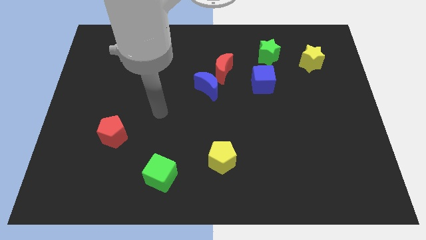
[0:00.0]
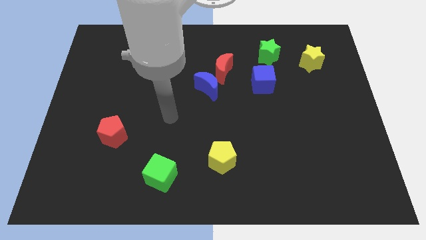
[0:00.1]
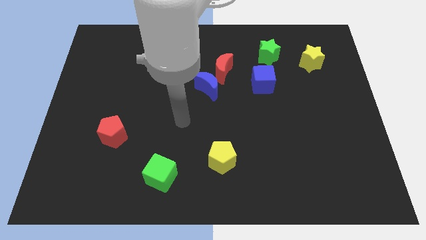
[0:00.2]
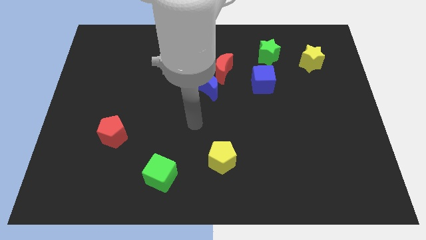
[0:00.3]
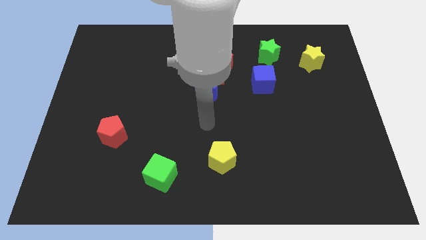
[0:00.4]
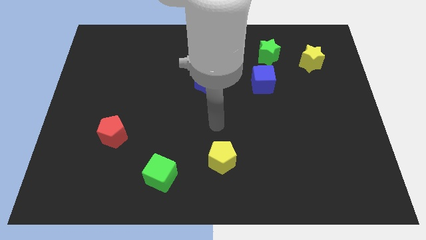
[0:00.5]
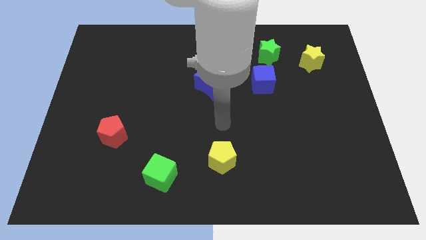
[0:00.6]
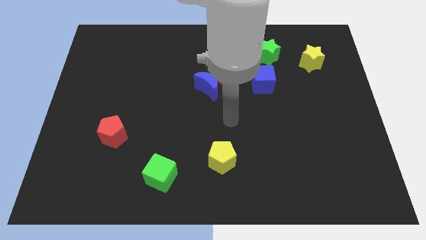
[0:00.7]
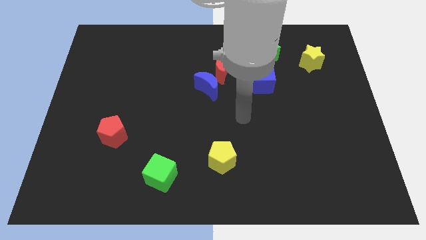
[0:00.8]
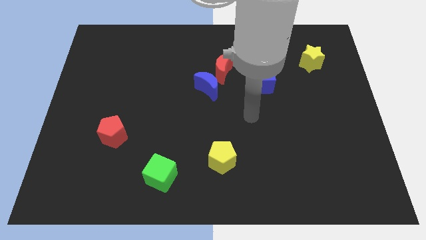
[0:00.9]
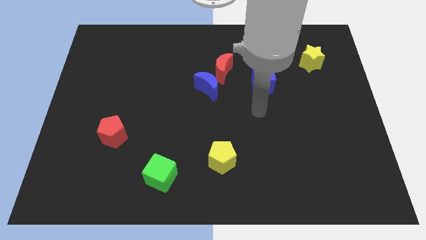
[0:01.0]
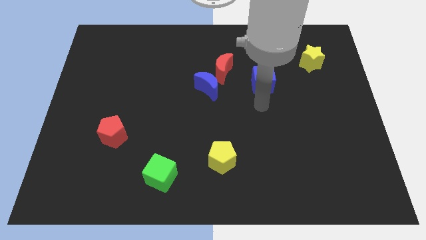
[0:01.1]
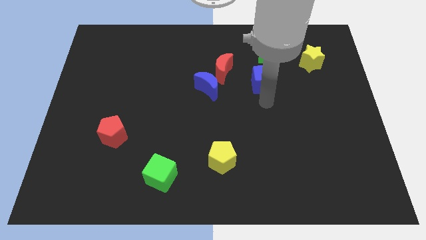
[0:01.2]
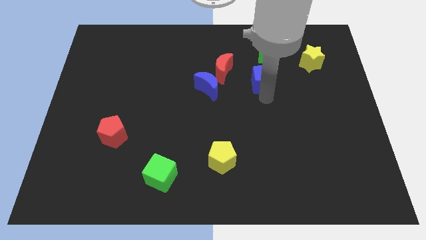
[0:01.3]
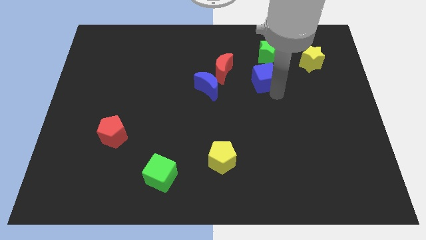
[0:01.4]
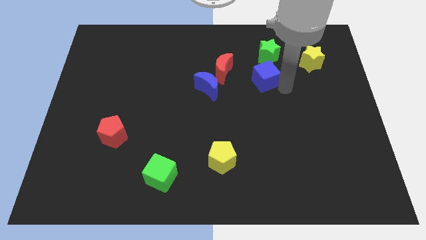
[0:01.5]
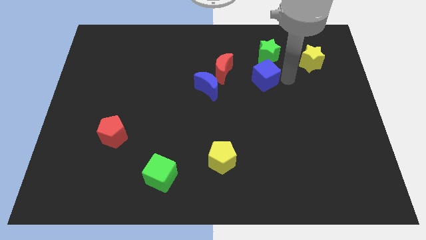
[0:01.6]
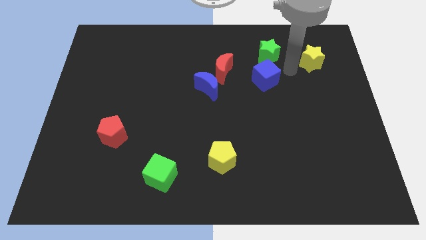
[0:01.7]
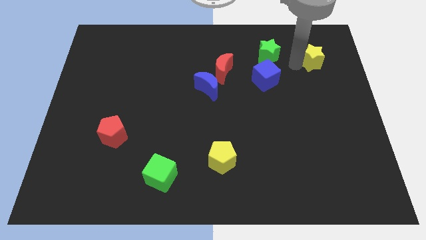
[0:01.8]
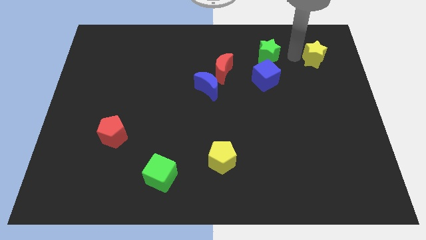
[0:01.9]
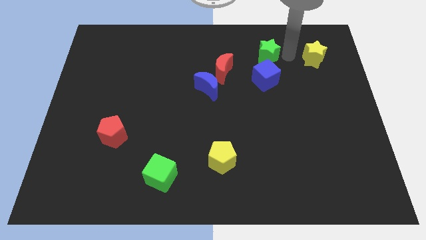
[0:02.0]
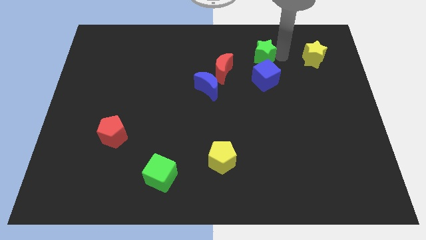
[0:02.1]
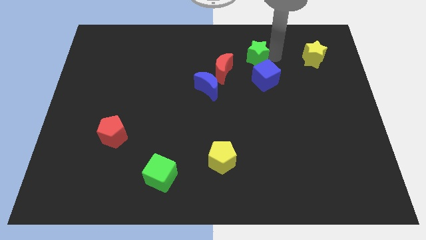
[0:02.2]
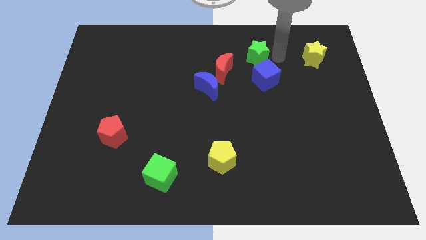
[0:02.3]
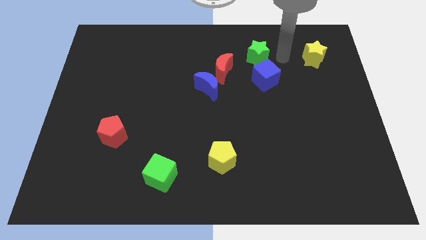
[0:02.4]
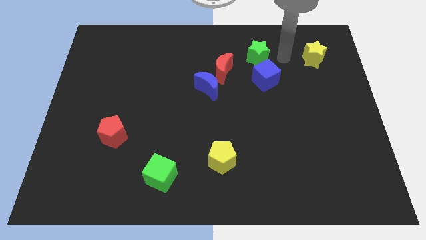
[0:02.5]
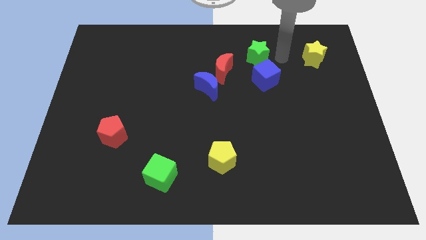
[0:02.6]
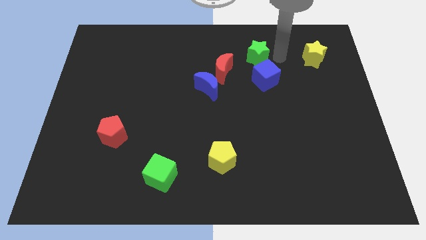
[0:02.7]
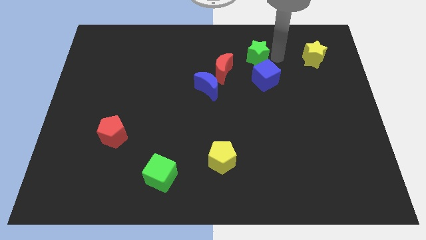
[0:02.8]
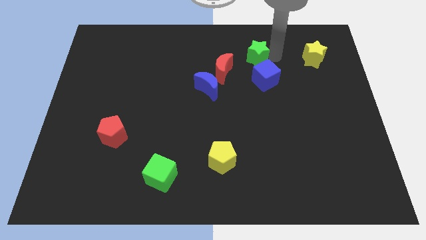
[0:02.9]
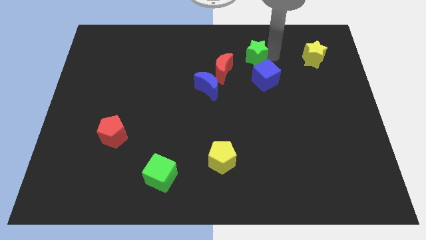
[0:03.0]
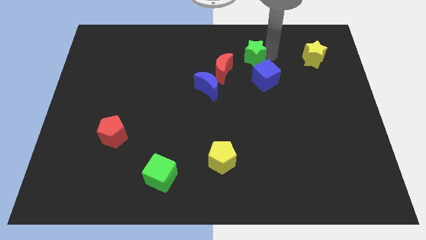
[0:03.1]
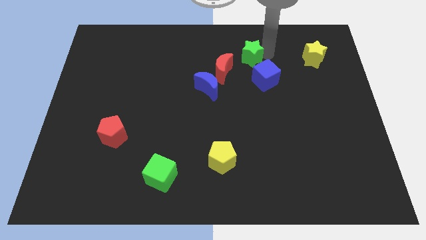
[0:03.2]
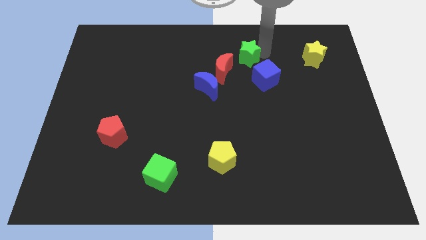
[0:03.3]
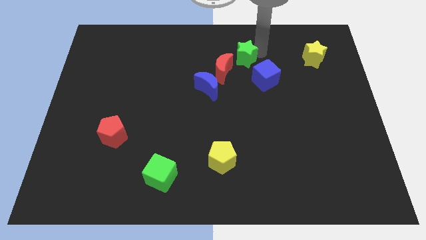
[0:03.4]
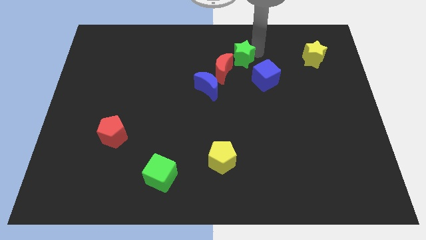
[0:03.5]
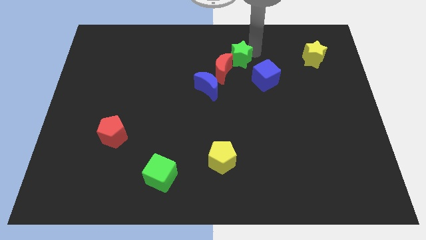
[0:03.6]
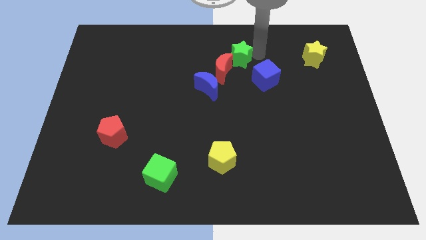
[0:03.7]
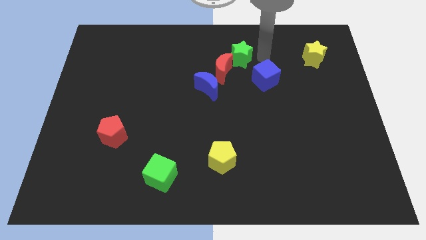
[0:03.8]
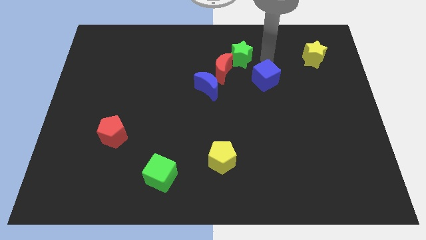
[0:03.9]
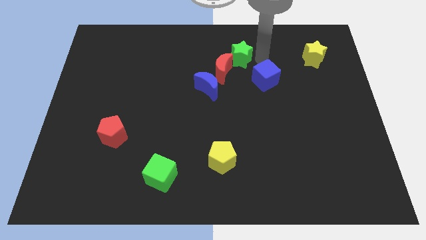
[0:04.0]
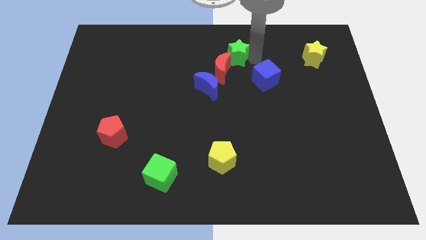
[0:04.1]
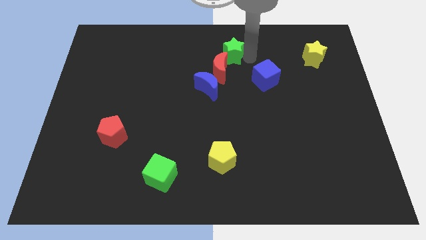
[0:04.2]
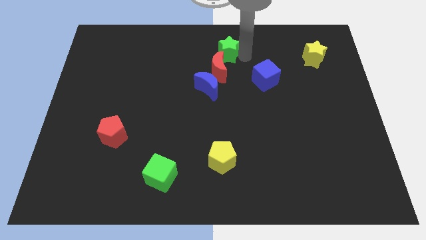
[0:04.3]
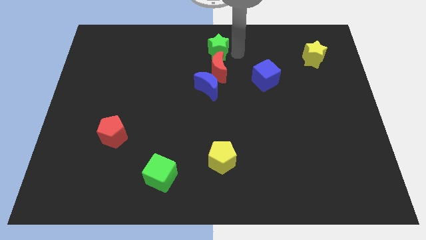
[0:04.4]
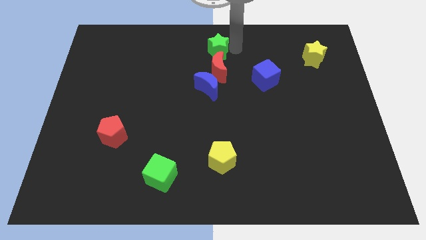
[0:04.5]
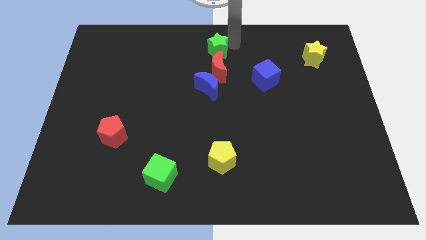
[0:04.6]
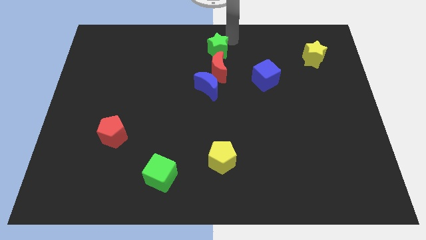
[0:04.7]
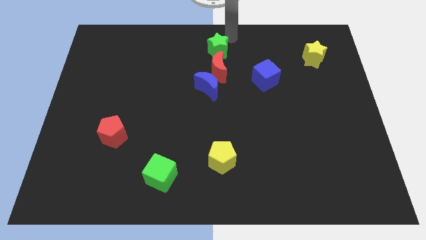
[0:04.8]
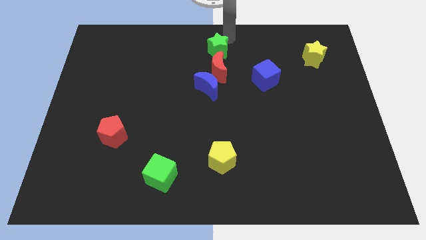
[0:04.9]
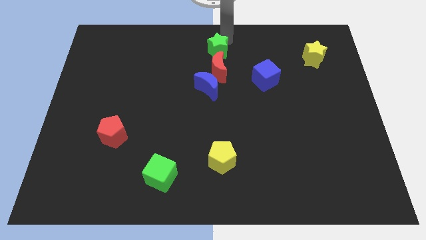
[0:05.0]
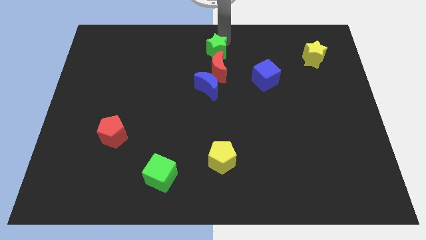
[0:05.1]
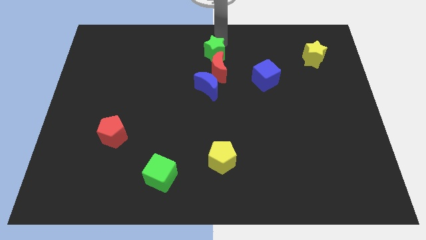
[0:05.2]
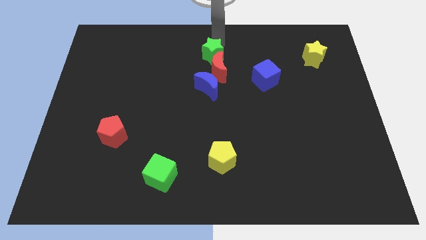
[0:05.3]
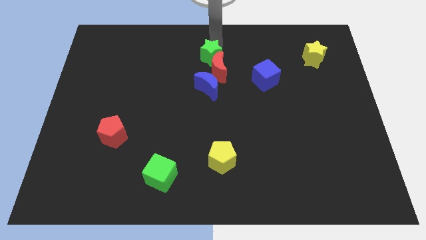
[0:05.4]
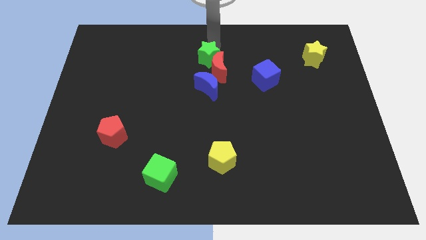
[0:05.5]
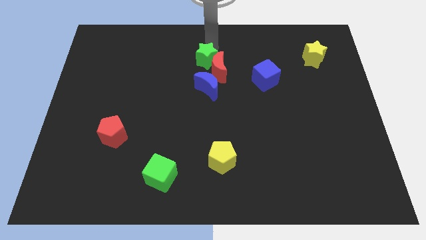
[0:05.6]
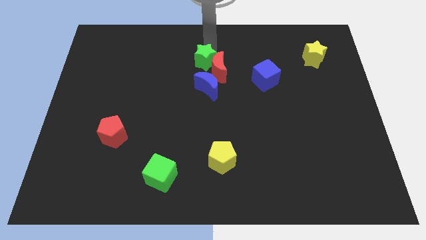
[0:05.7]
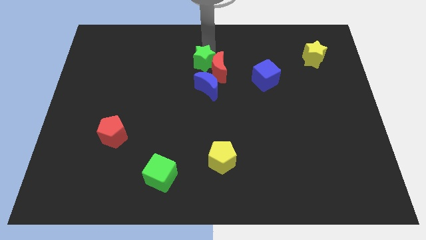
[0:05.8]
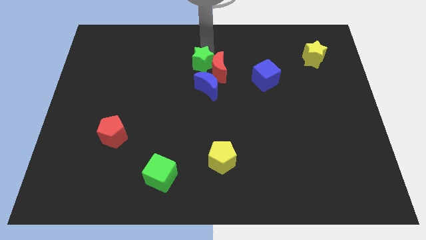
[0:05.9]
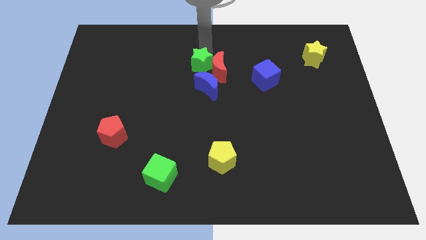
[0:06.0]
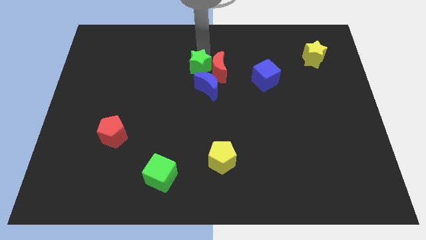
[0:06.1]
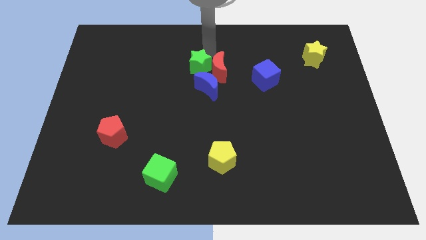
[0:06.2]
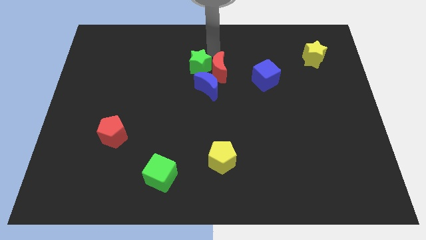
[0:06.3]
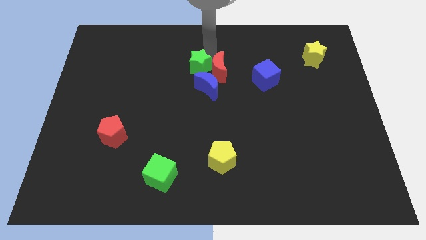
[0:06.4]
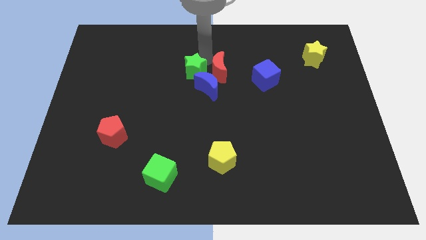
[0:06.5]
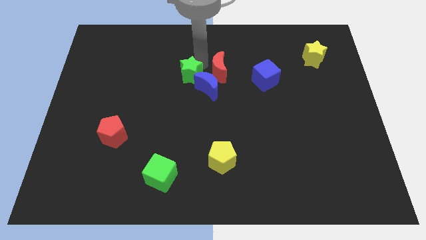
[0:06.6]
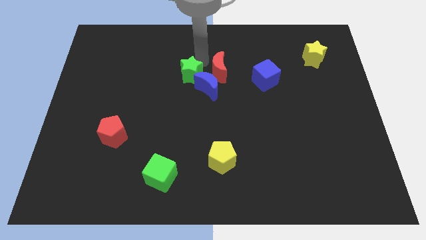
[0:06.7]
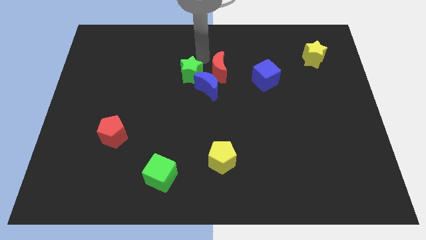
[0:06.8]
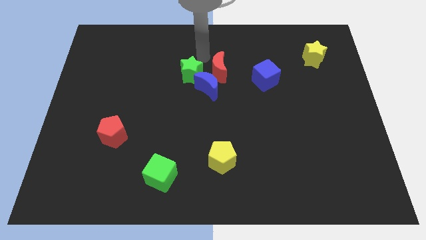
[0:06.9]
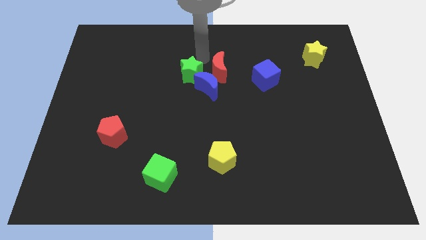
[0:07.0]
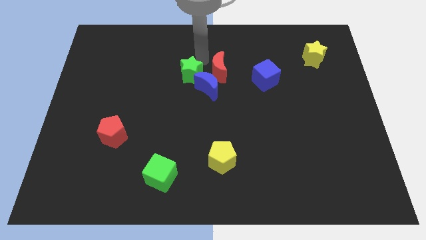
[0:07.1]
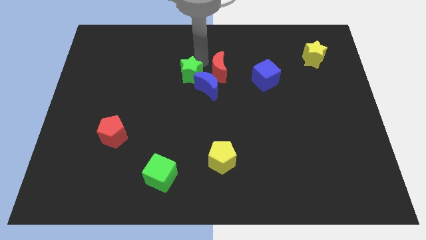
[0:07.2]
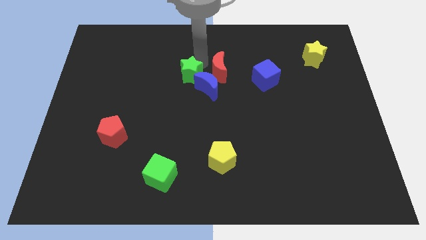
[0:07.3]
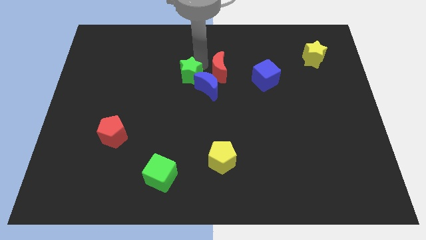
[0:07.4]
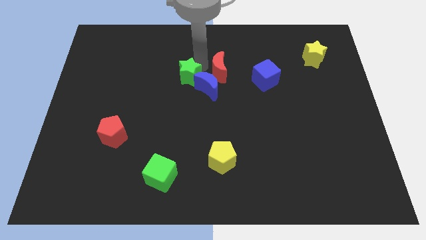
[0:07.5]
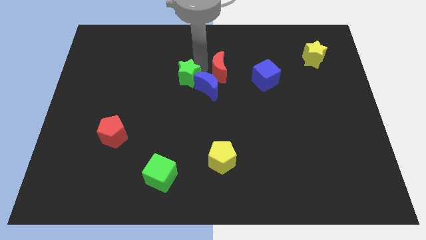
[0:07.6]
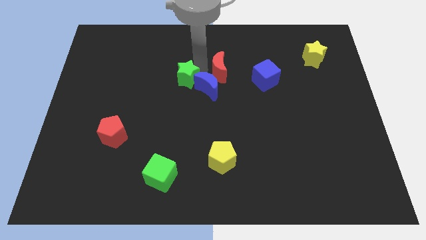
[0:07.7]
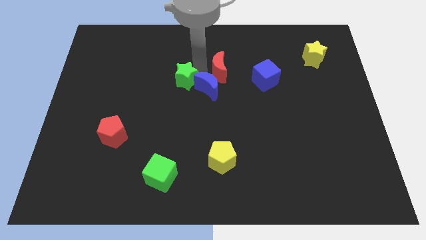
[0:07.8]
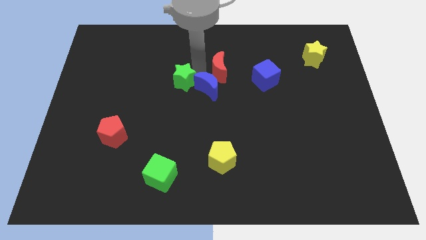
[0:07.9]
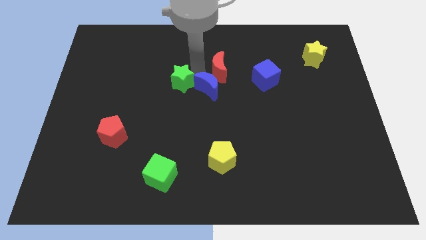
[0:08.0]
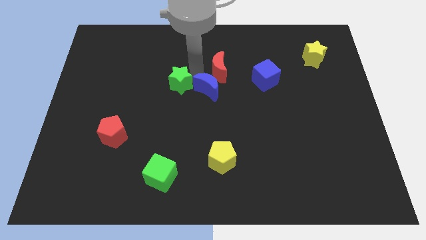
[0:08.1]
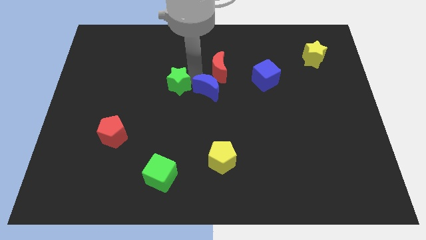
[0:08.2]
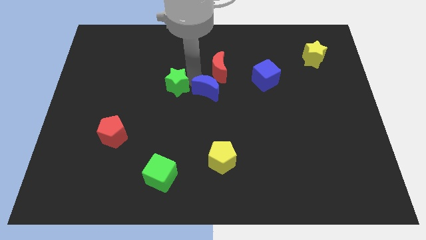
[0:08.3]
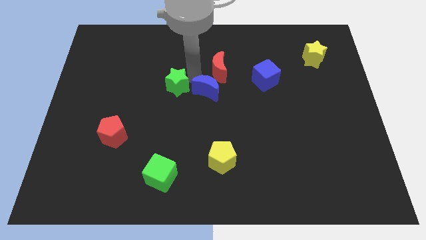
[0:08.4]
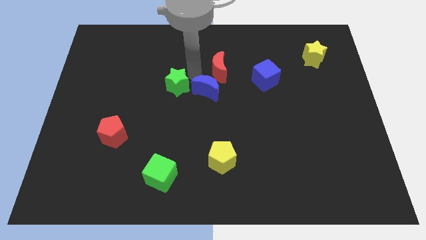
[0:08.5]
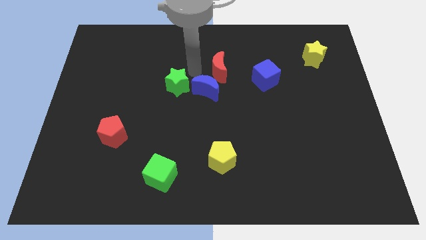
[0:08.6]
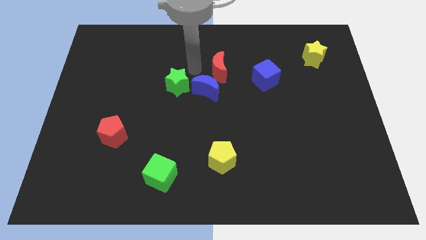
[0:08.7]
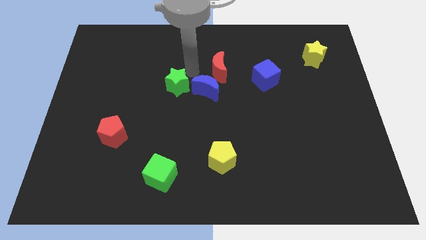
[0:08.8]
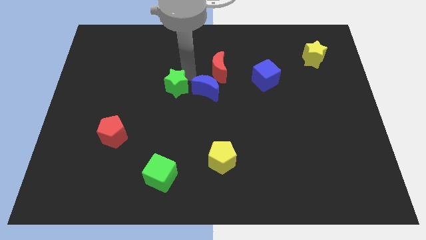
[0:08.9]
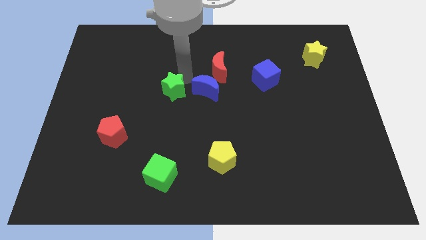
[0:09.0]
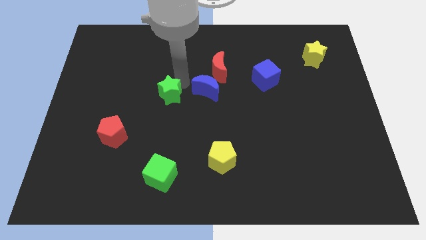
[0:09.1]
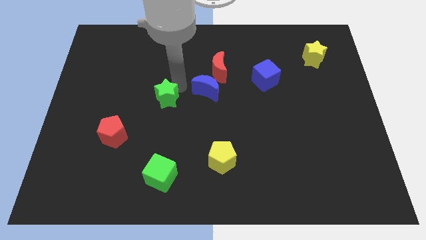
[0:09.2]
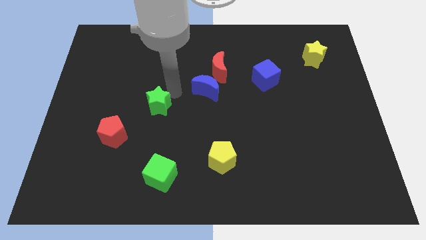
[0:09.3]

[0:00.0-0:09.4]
slide the green star to the top right of the red pentagon
